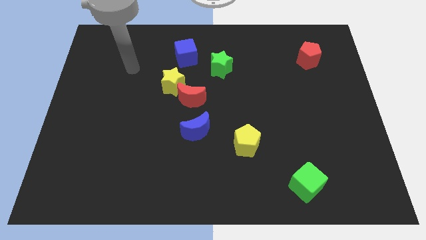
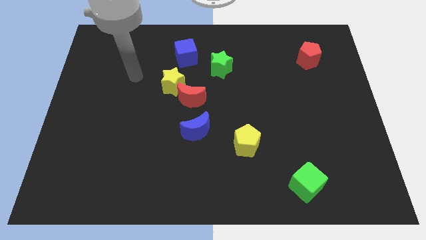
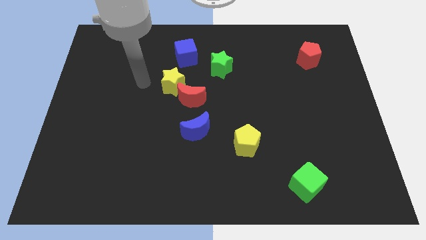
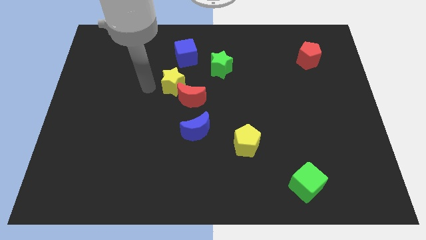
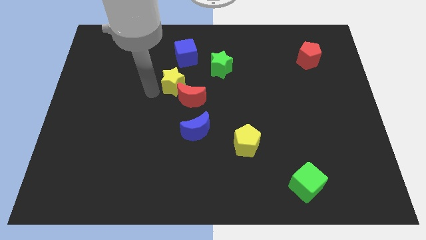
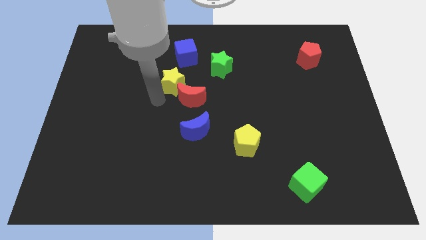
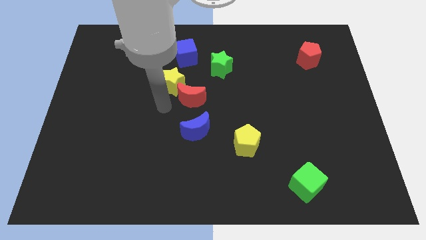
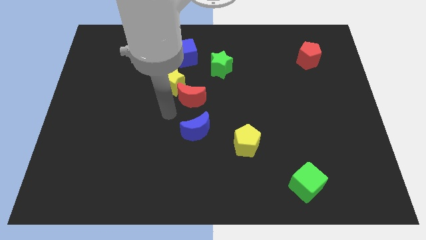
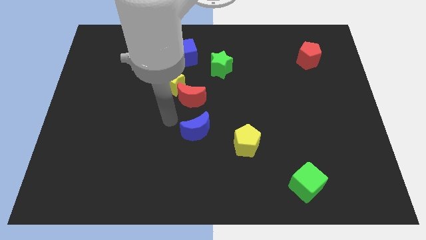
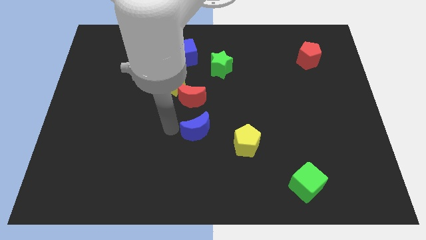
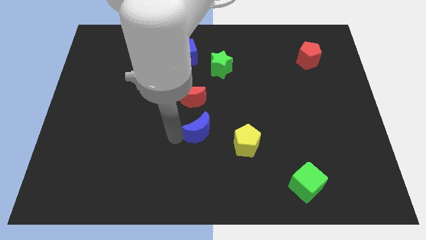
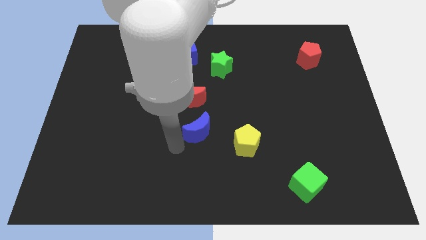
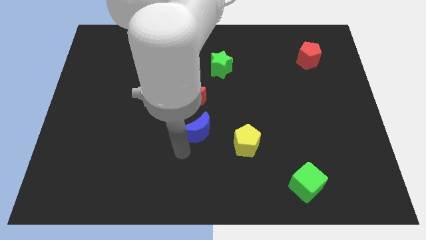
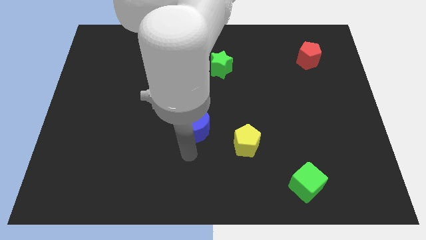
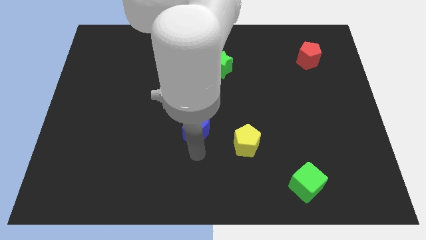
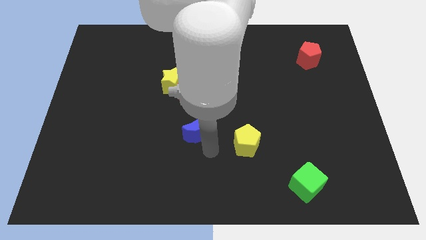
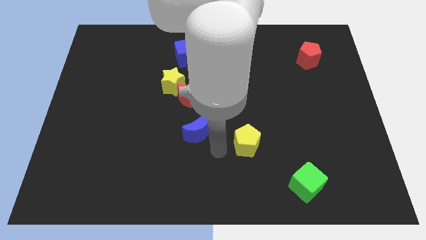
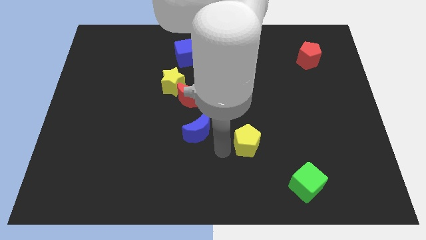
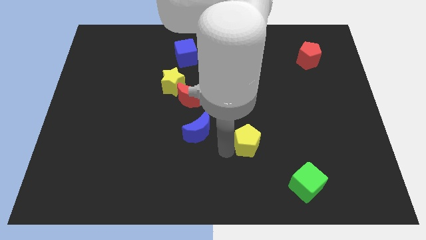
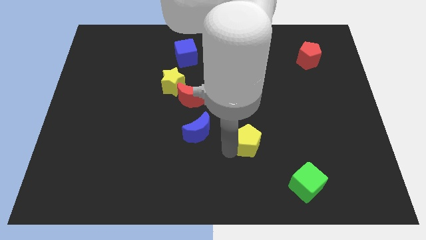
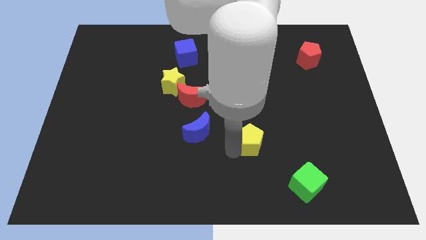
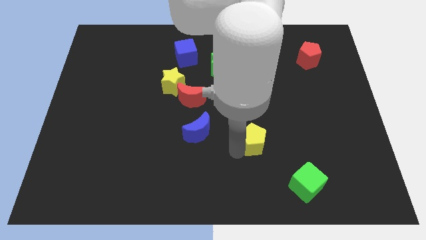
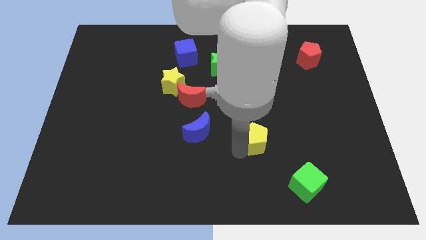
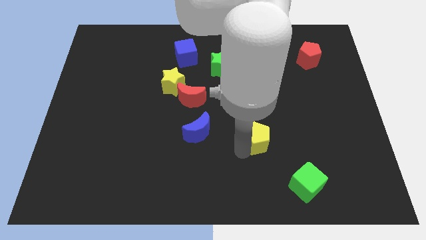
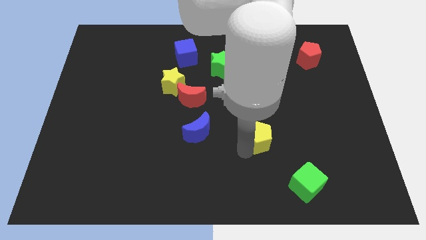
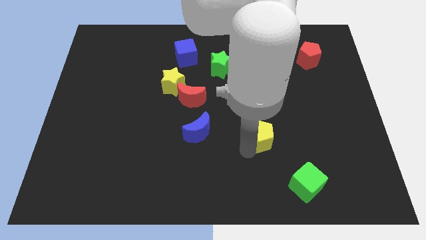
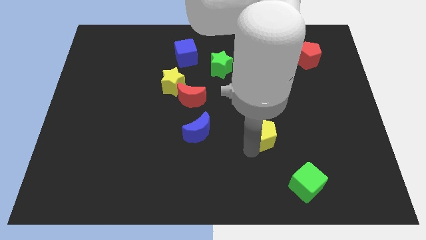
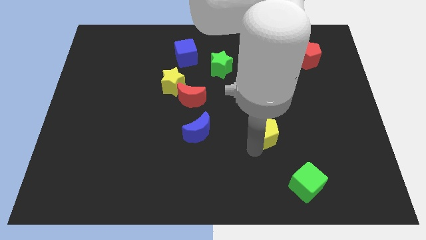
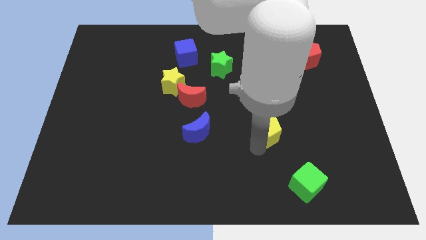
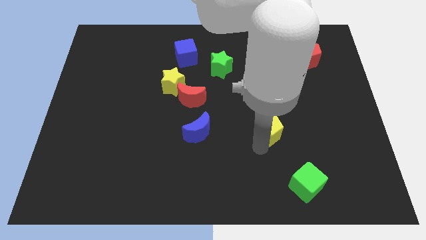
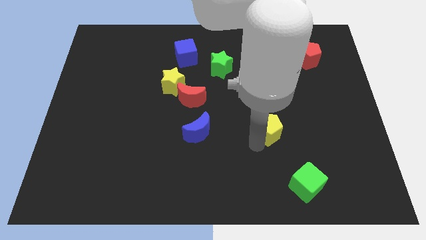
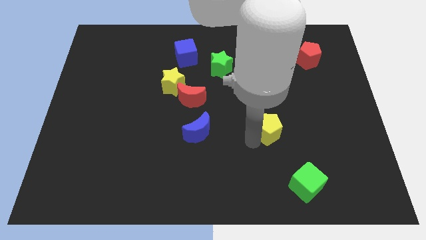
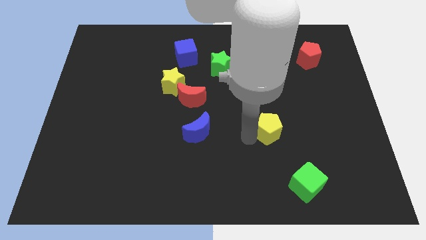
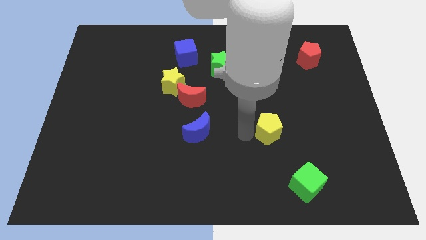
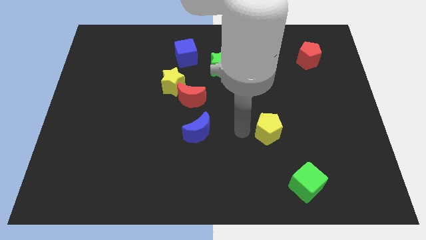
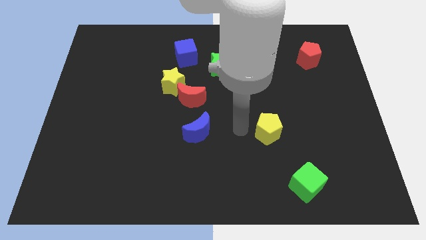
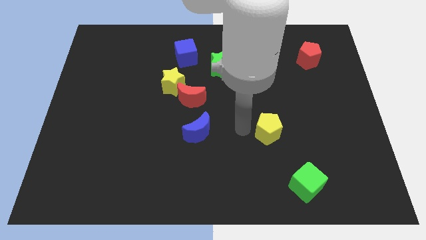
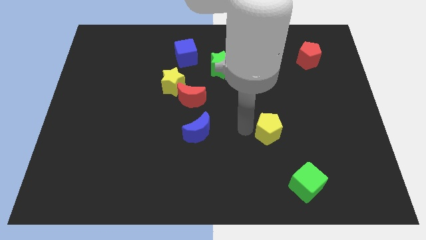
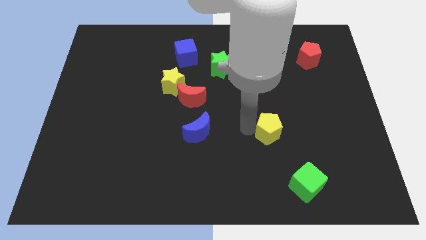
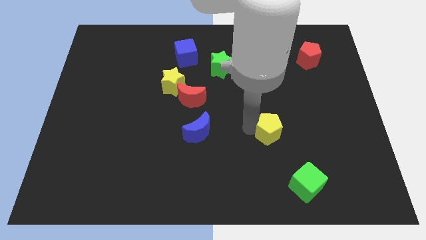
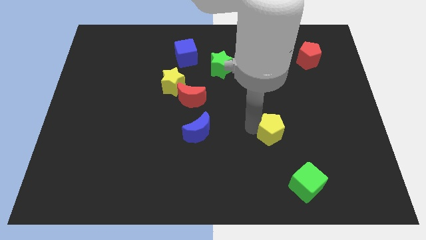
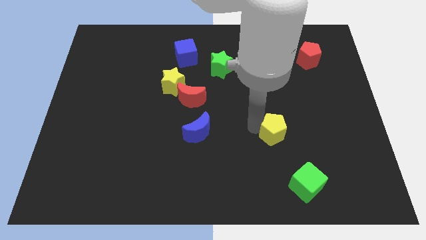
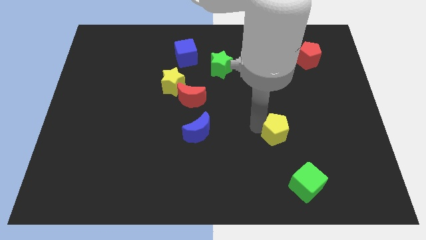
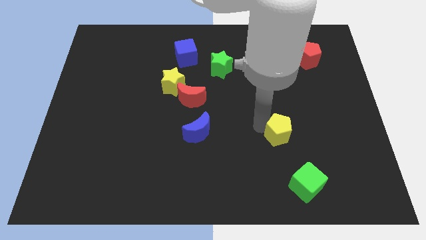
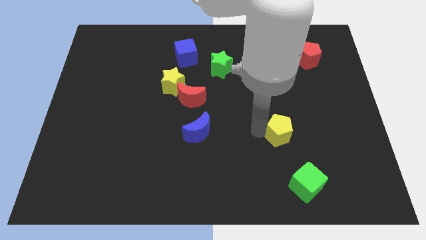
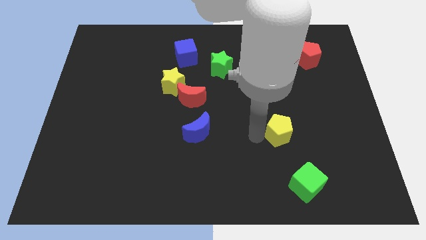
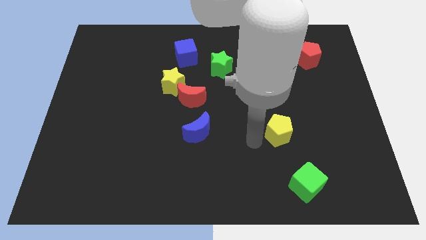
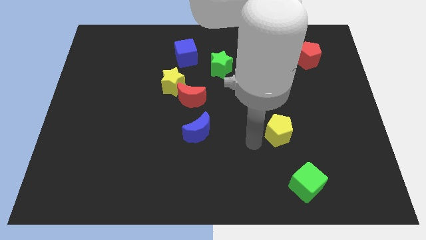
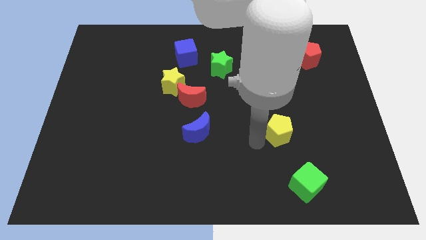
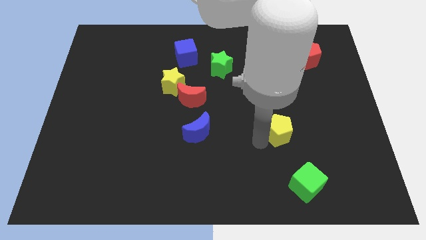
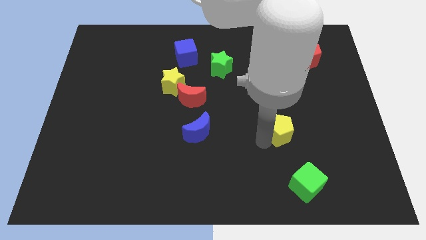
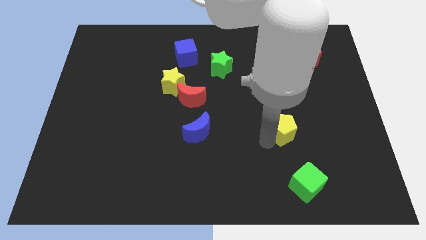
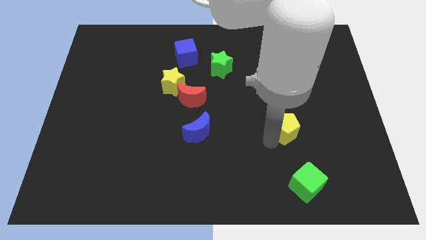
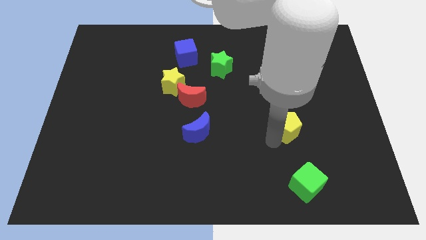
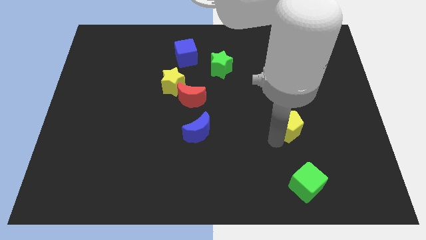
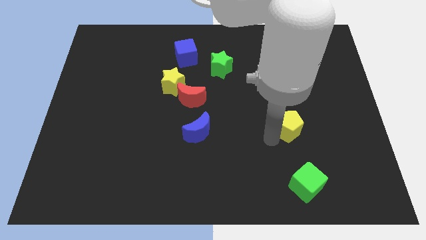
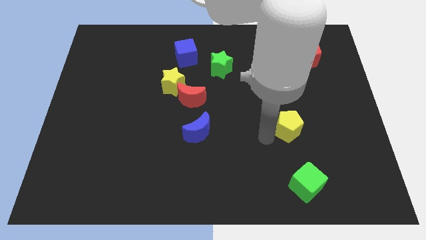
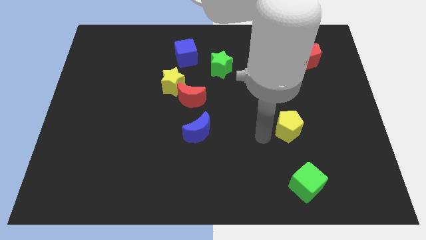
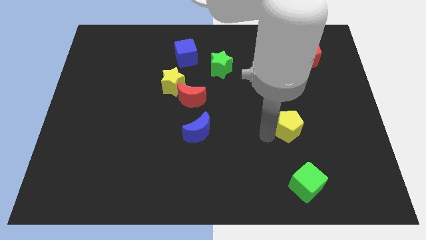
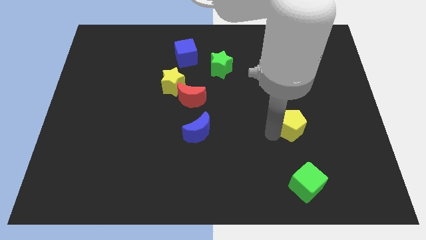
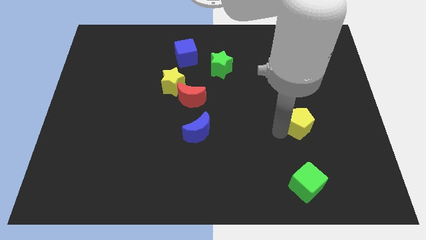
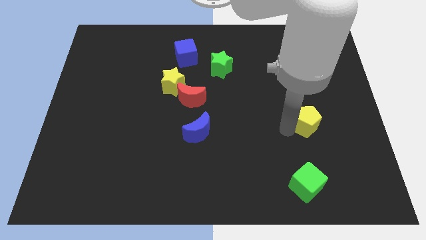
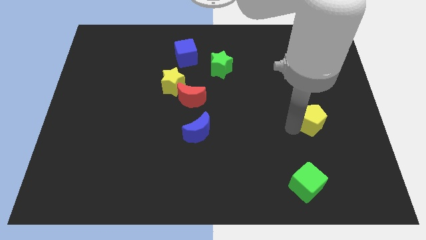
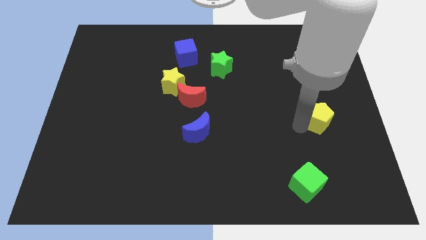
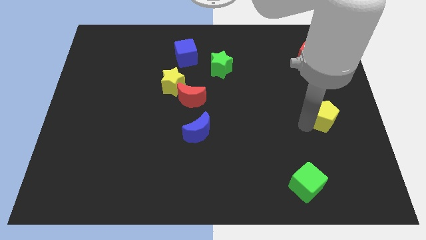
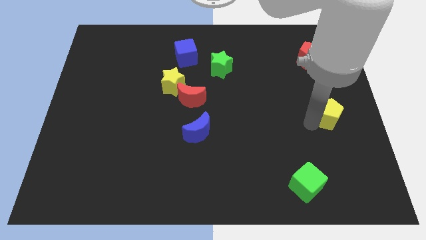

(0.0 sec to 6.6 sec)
slide the yellow pentagon to the center right

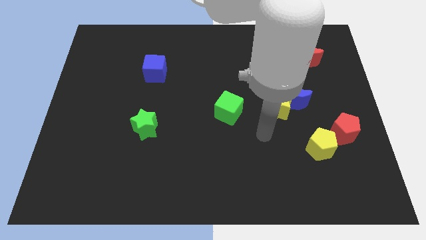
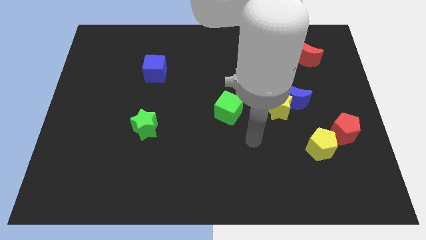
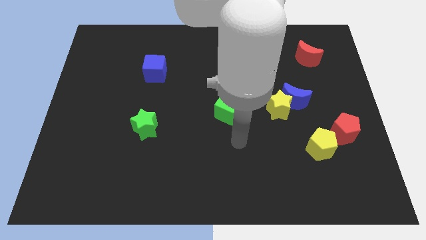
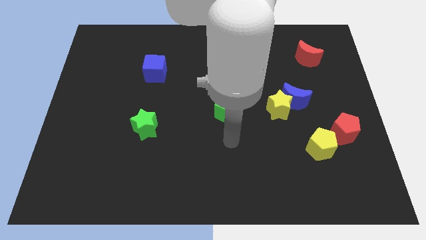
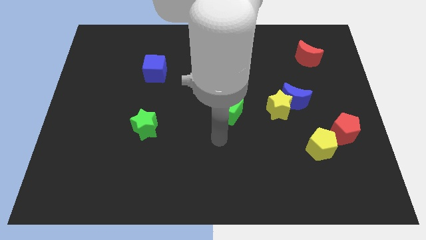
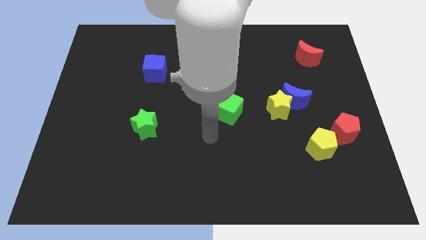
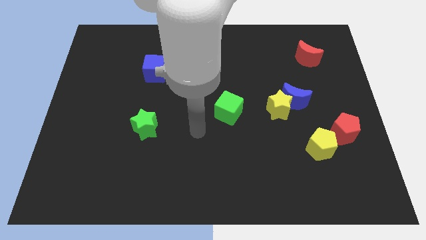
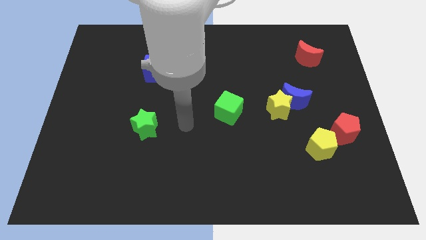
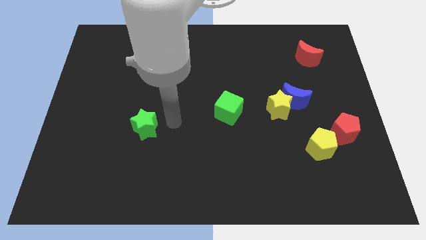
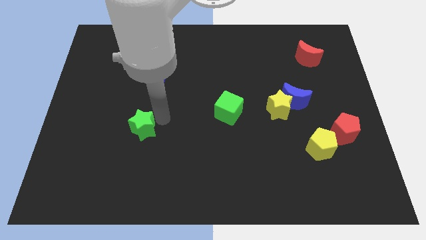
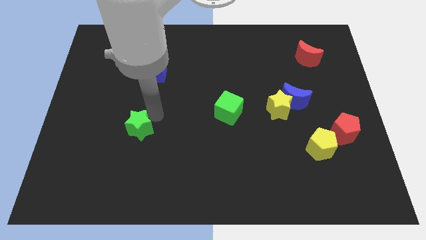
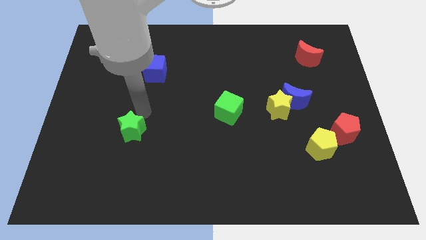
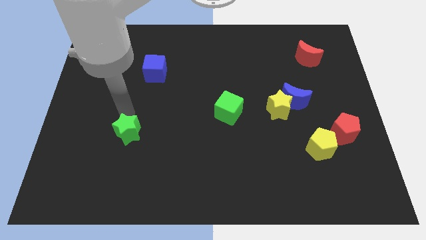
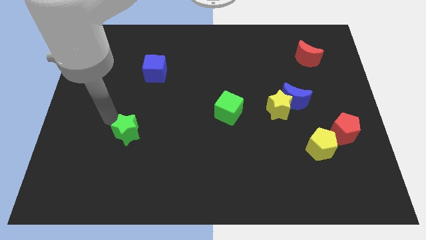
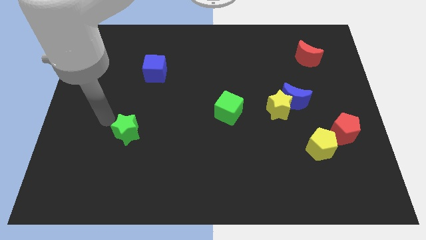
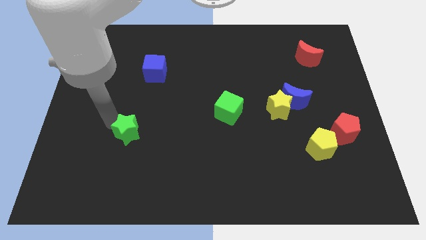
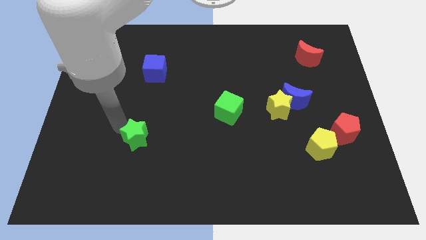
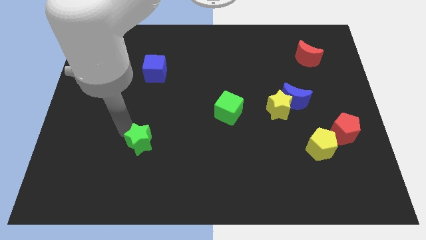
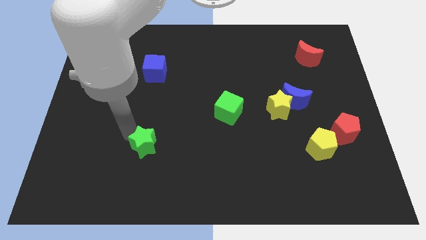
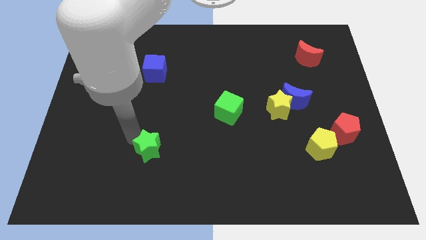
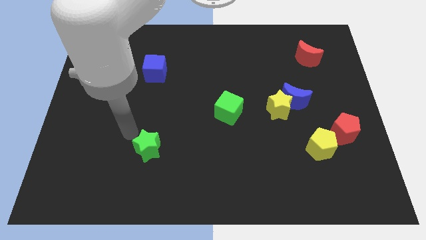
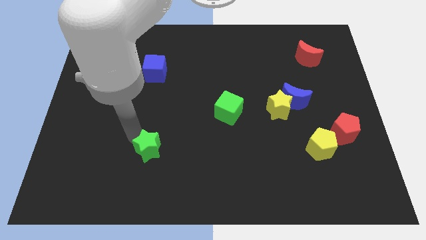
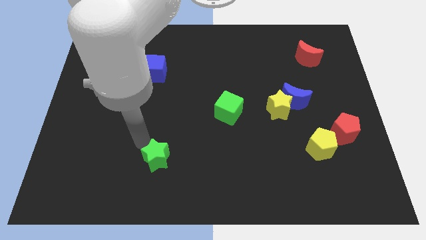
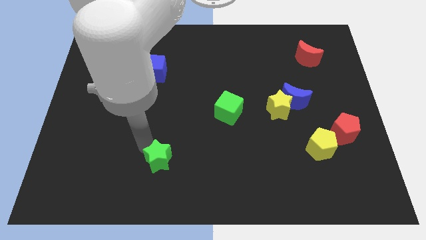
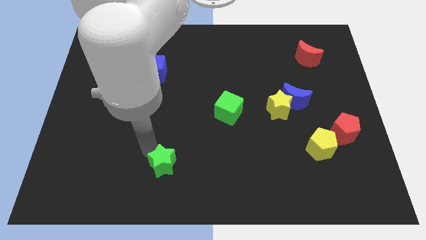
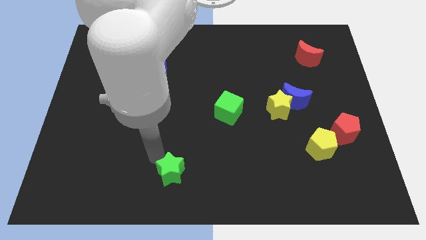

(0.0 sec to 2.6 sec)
move the green star to the bottom
